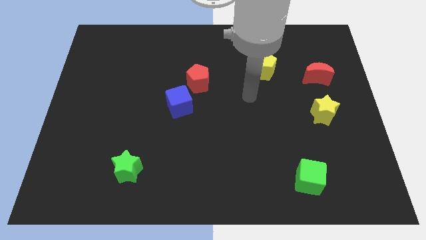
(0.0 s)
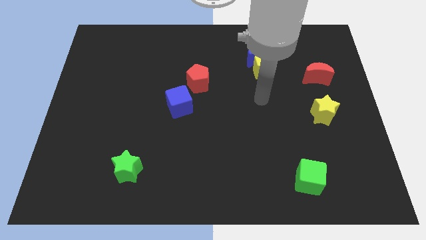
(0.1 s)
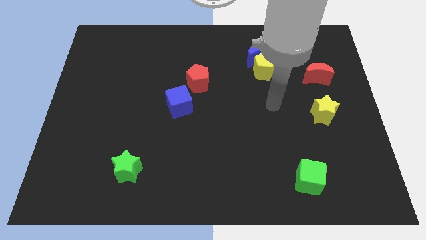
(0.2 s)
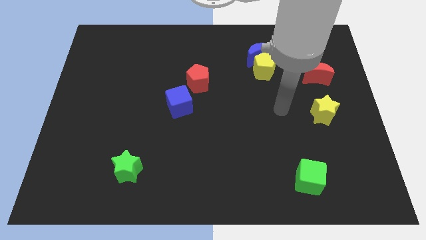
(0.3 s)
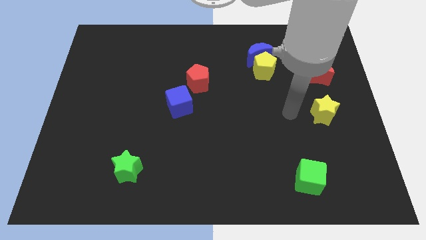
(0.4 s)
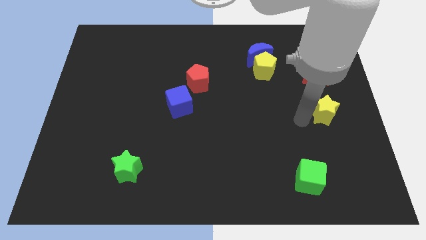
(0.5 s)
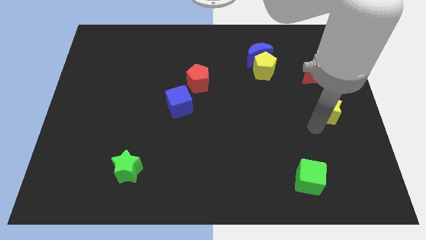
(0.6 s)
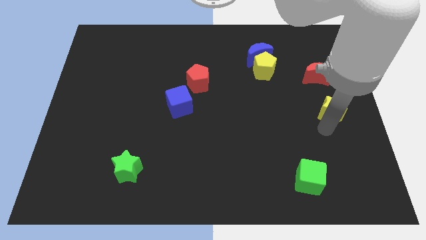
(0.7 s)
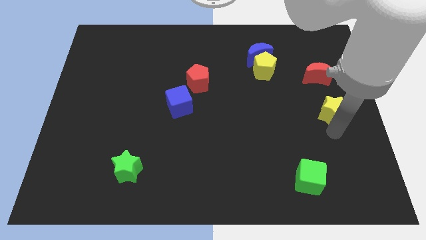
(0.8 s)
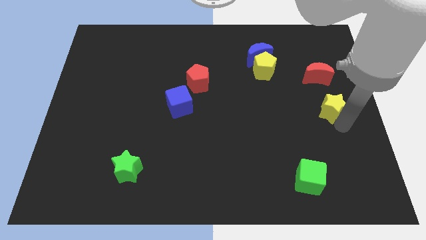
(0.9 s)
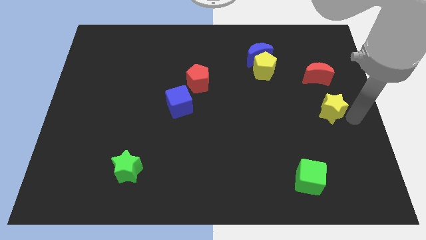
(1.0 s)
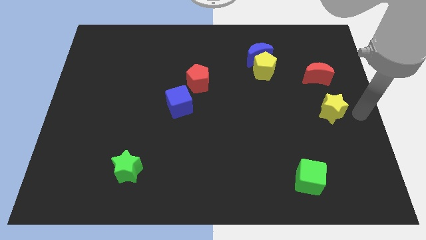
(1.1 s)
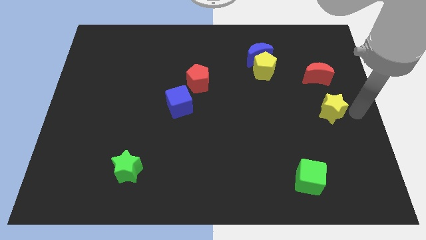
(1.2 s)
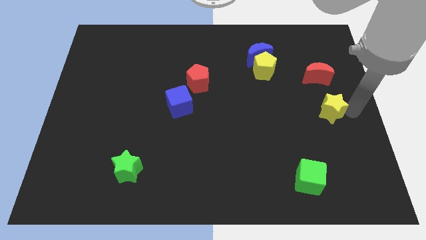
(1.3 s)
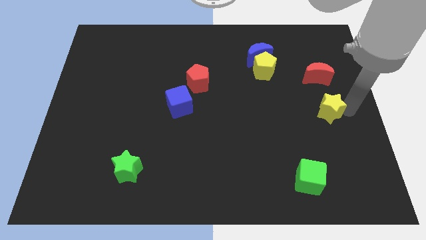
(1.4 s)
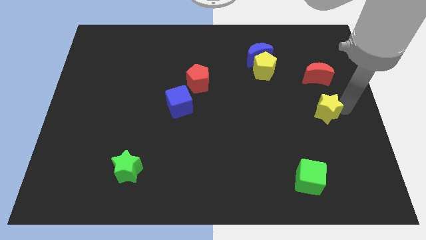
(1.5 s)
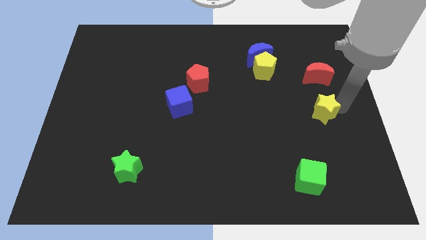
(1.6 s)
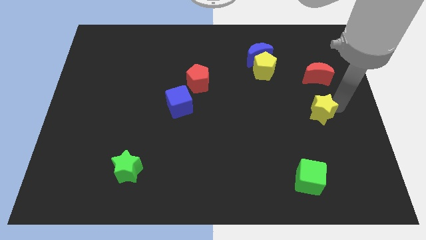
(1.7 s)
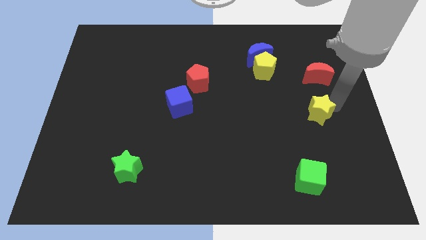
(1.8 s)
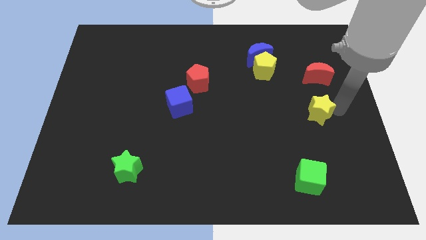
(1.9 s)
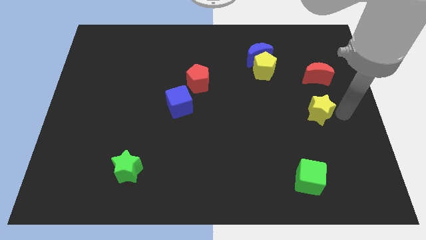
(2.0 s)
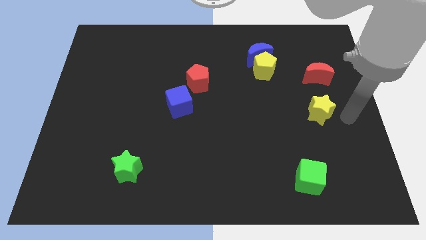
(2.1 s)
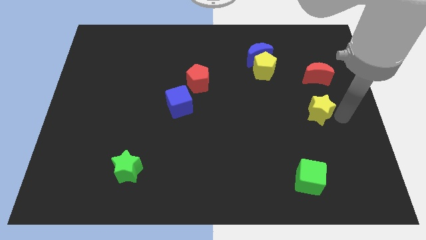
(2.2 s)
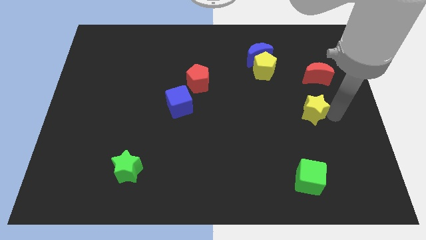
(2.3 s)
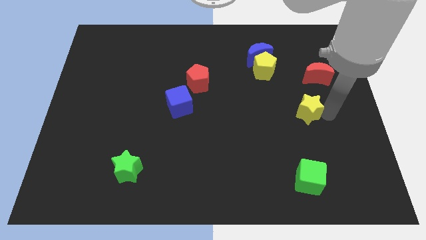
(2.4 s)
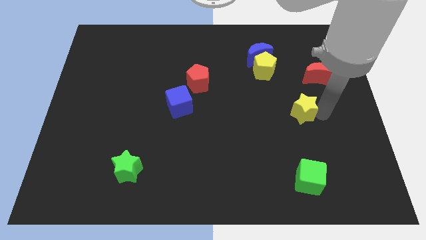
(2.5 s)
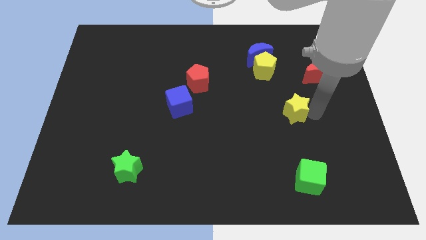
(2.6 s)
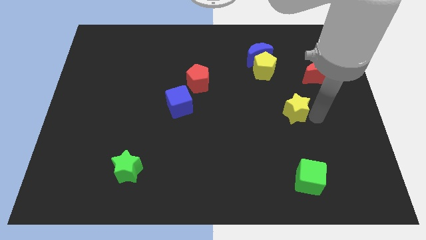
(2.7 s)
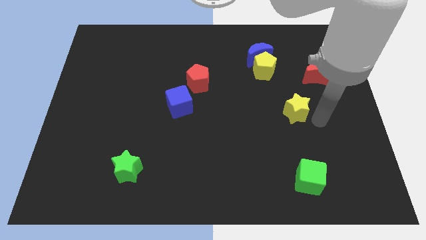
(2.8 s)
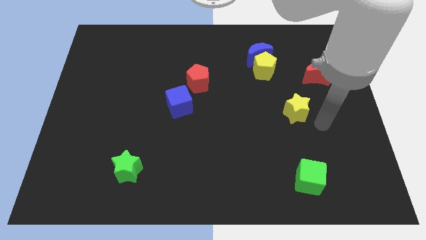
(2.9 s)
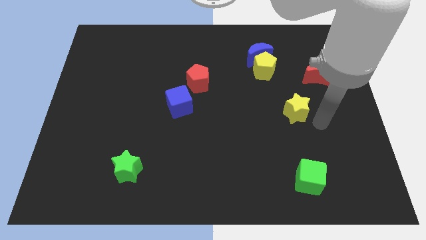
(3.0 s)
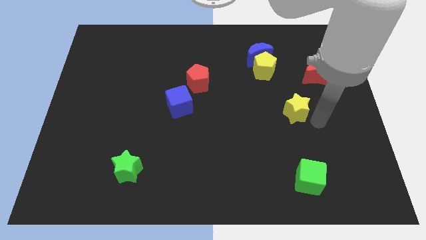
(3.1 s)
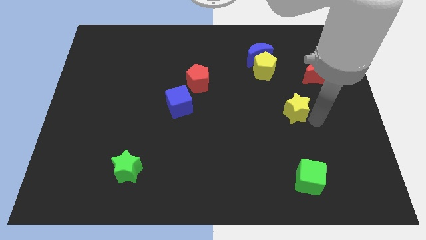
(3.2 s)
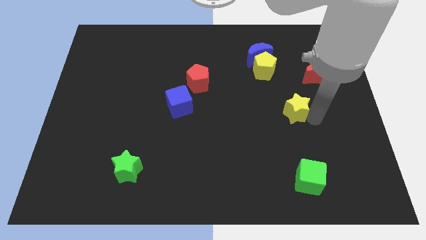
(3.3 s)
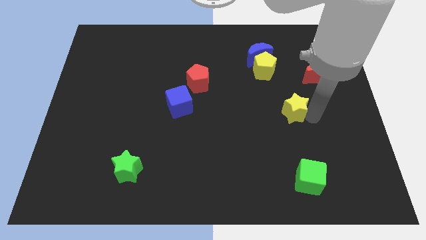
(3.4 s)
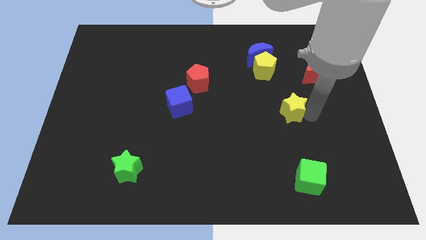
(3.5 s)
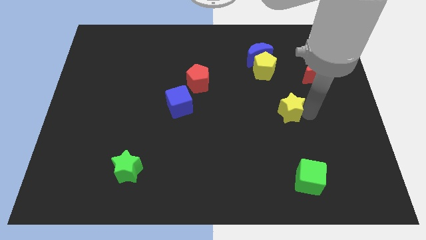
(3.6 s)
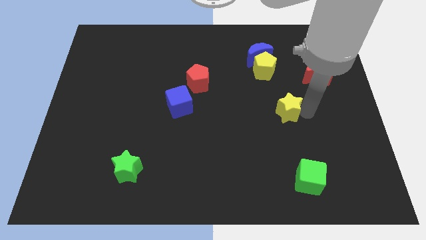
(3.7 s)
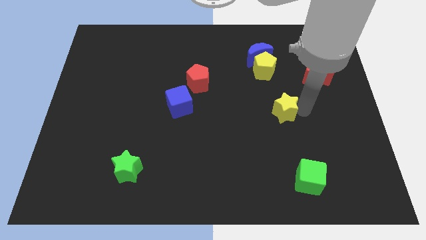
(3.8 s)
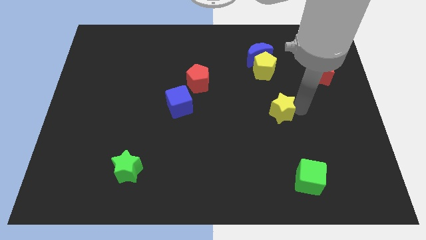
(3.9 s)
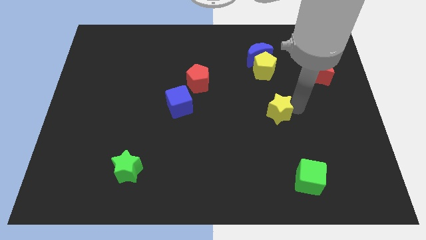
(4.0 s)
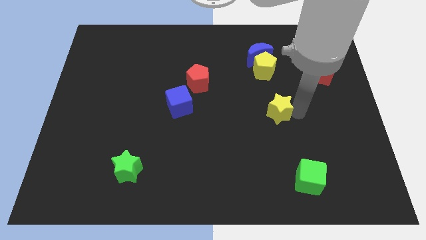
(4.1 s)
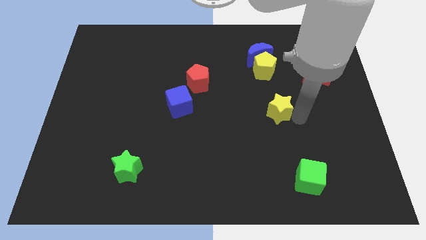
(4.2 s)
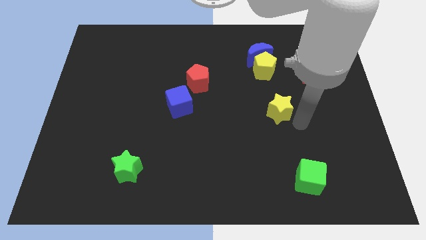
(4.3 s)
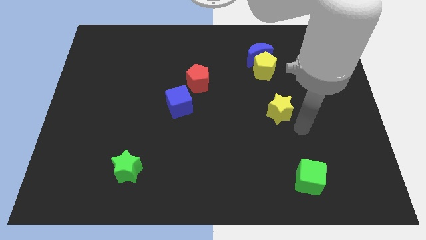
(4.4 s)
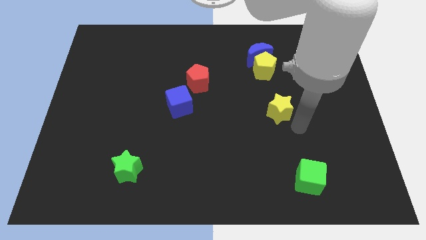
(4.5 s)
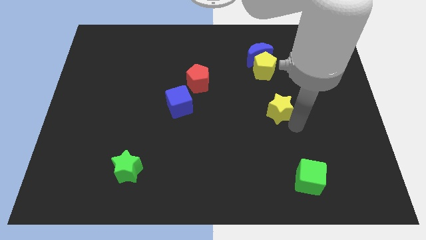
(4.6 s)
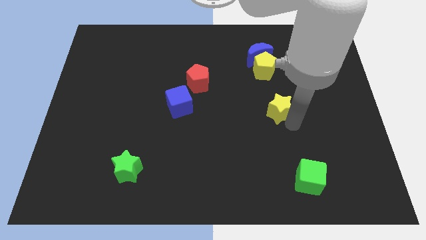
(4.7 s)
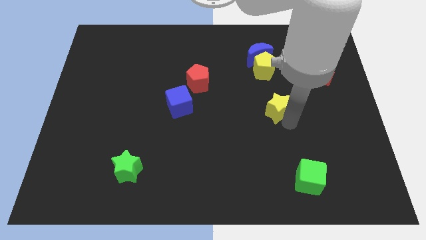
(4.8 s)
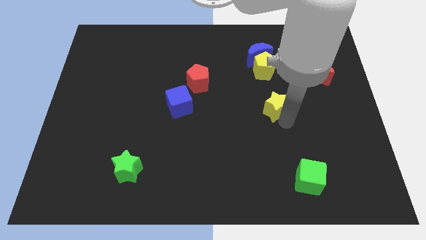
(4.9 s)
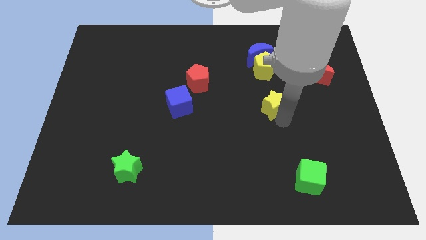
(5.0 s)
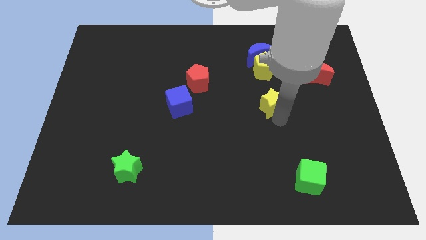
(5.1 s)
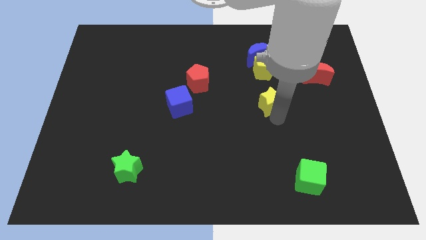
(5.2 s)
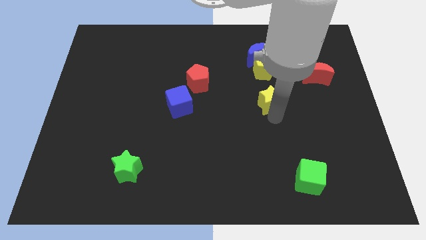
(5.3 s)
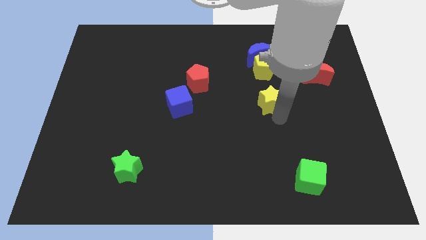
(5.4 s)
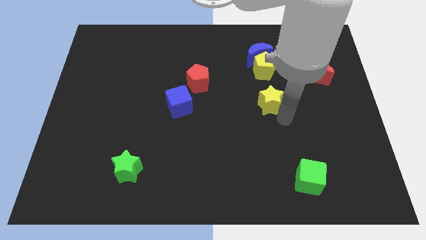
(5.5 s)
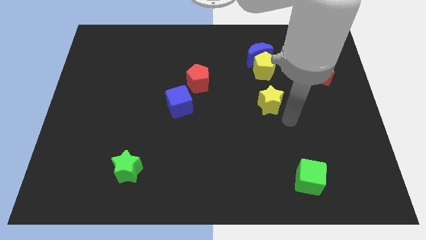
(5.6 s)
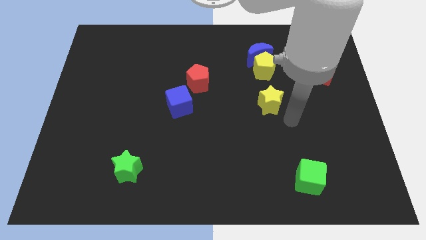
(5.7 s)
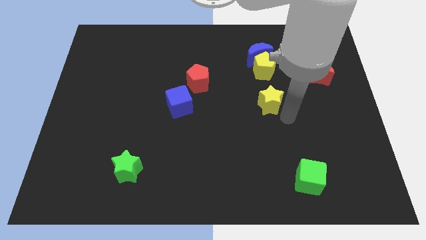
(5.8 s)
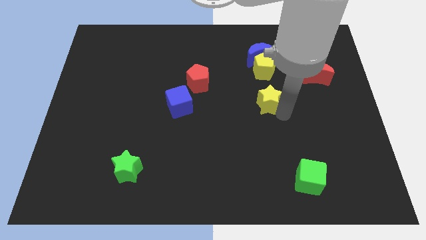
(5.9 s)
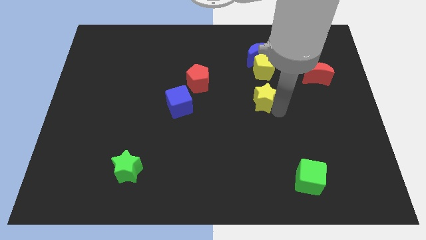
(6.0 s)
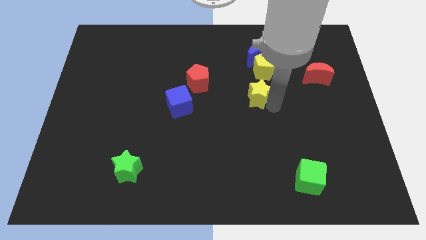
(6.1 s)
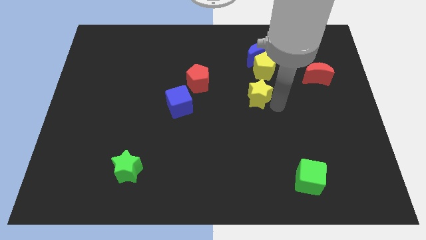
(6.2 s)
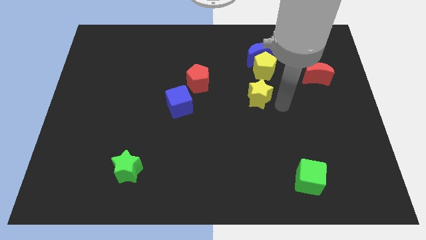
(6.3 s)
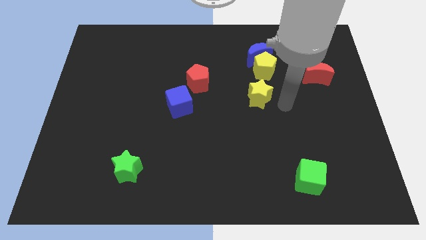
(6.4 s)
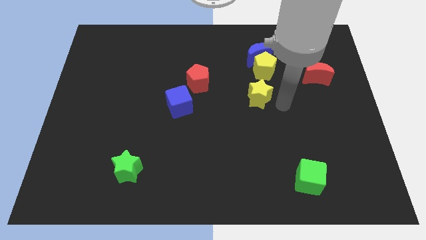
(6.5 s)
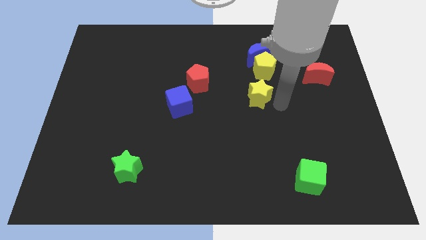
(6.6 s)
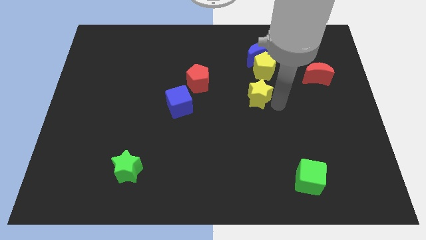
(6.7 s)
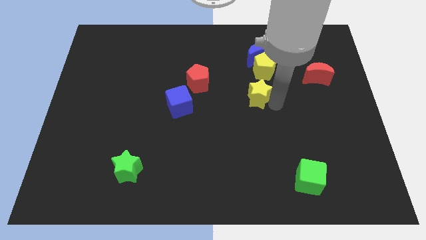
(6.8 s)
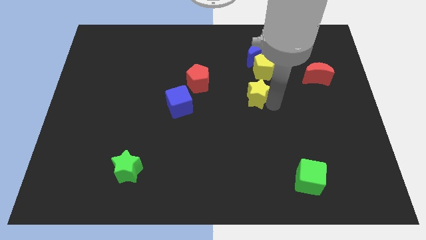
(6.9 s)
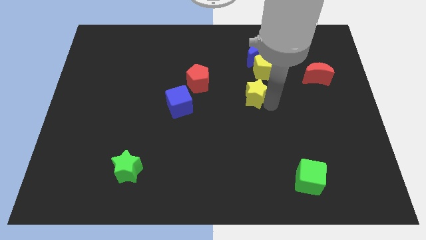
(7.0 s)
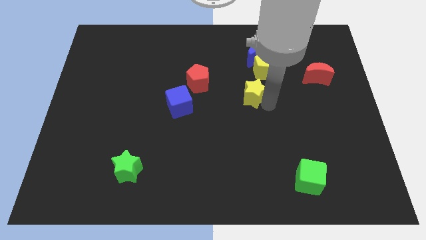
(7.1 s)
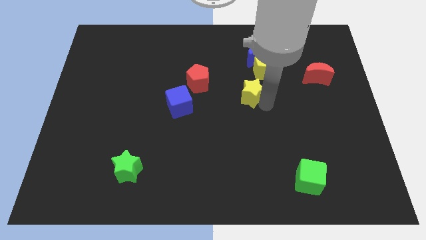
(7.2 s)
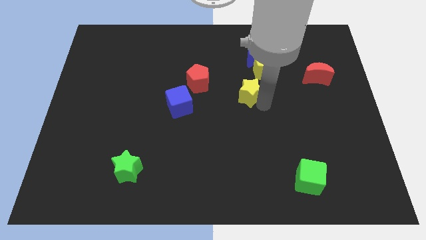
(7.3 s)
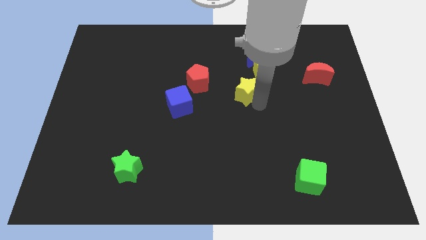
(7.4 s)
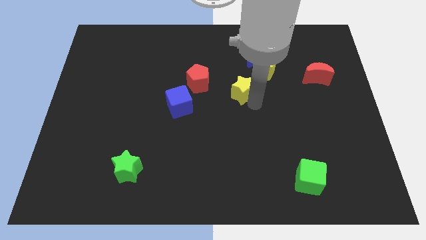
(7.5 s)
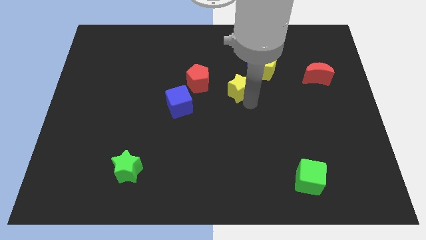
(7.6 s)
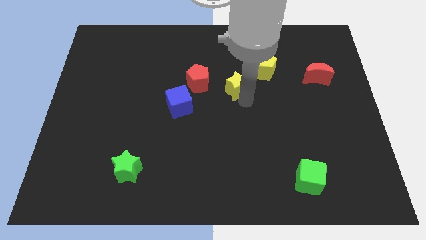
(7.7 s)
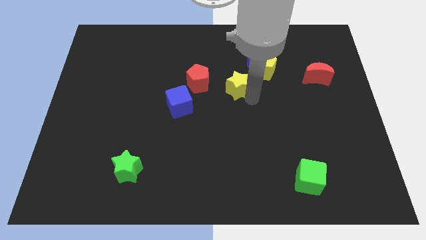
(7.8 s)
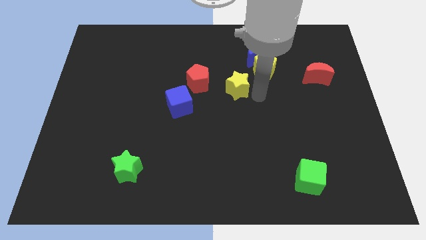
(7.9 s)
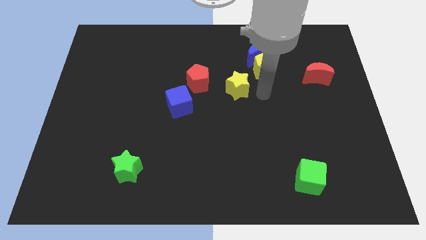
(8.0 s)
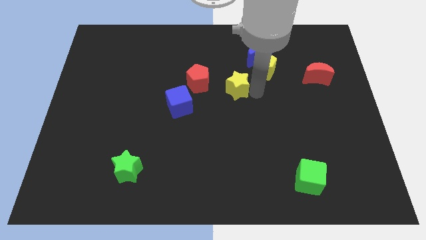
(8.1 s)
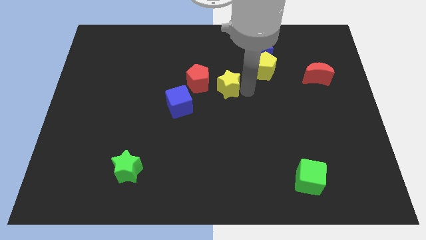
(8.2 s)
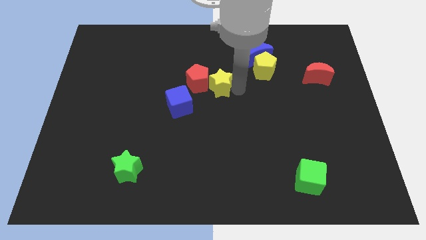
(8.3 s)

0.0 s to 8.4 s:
push the yellow star towards the red pentagon

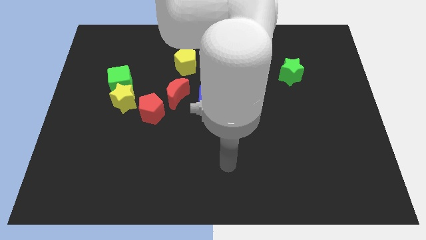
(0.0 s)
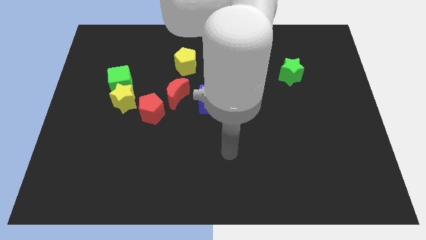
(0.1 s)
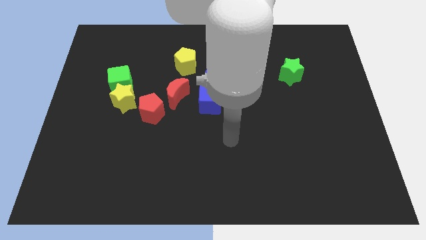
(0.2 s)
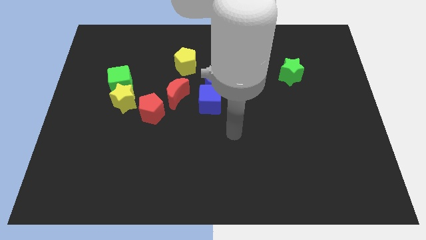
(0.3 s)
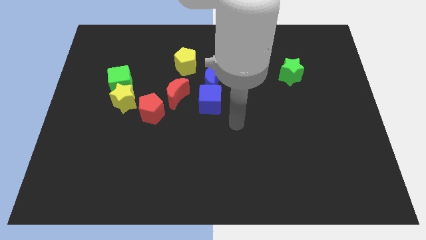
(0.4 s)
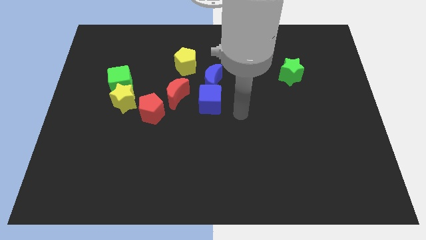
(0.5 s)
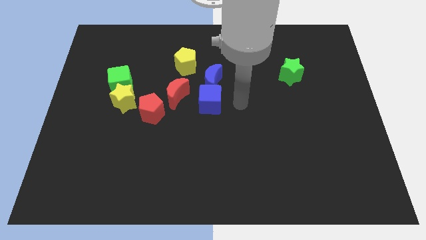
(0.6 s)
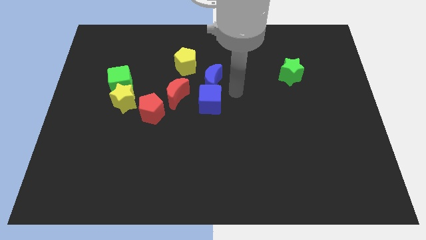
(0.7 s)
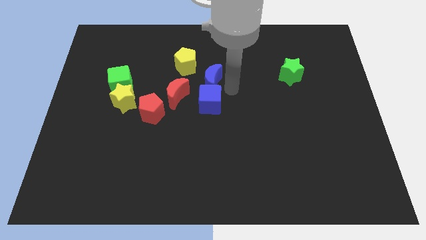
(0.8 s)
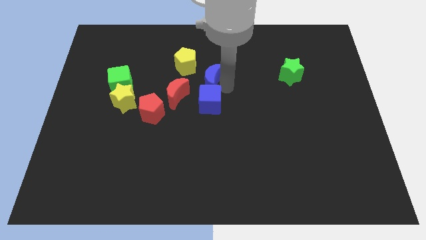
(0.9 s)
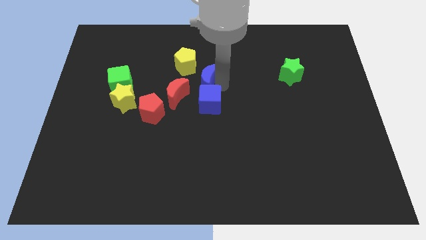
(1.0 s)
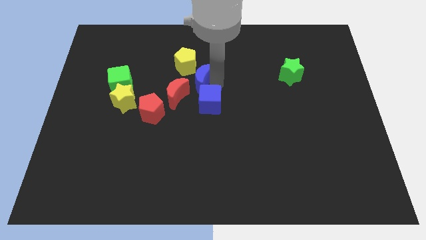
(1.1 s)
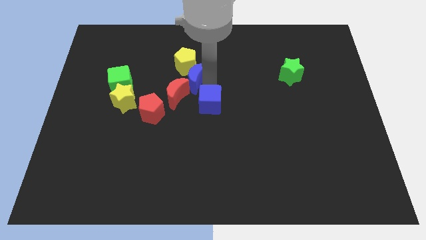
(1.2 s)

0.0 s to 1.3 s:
push the blue moon close to the yellow pentagon
